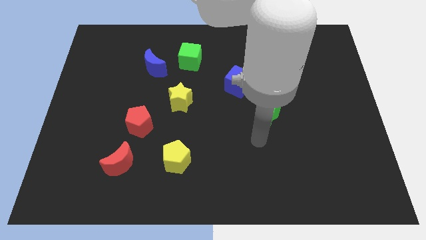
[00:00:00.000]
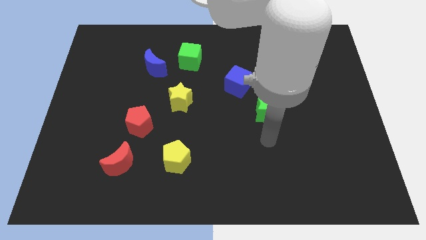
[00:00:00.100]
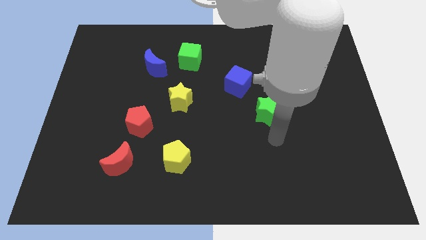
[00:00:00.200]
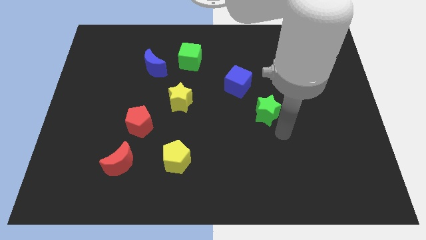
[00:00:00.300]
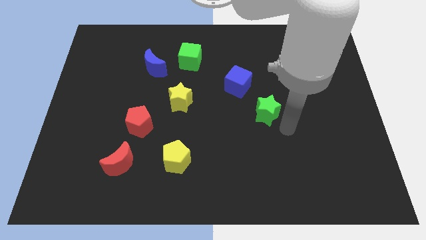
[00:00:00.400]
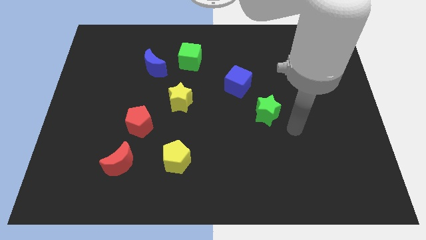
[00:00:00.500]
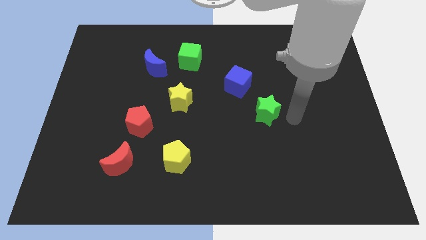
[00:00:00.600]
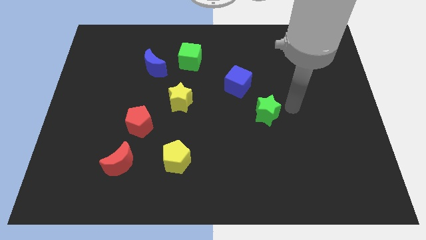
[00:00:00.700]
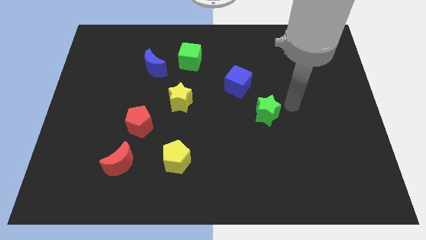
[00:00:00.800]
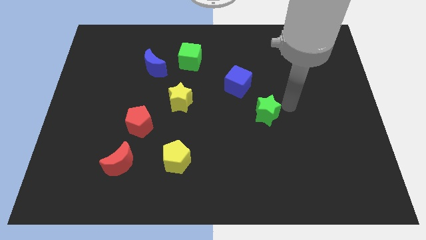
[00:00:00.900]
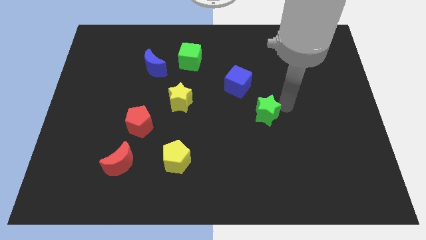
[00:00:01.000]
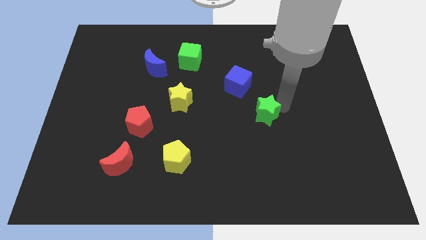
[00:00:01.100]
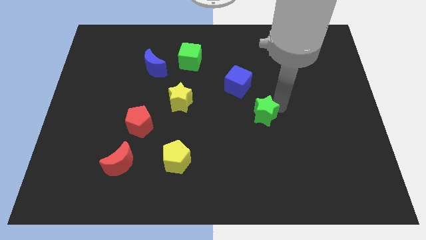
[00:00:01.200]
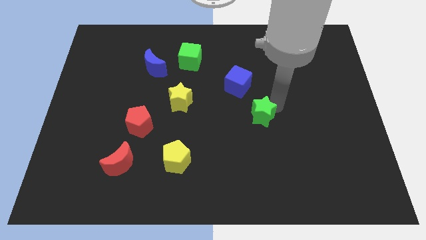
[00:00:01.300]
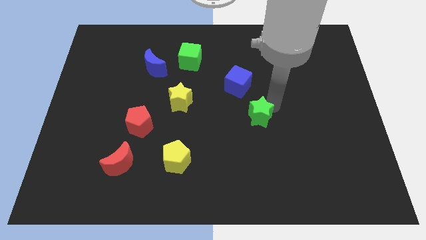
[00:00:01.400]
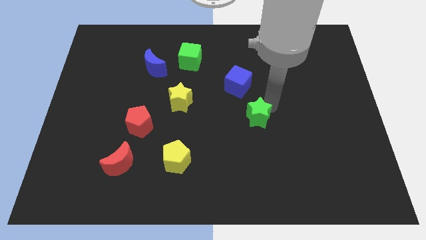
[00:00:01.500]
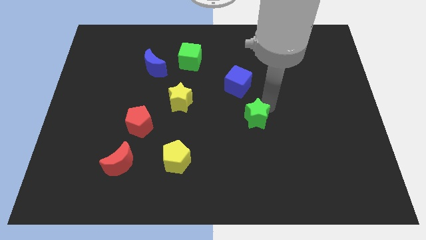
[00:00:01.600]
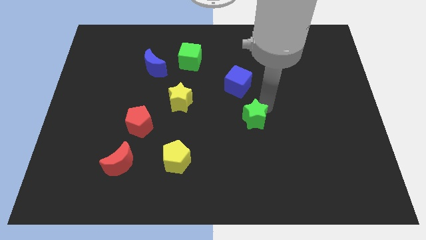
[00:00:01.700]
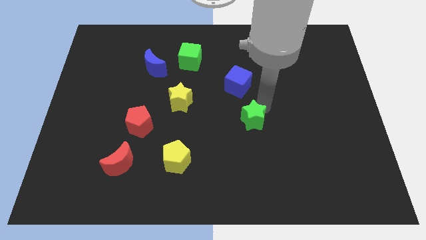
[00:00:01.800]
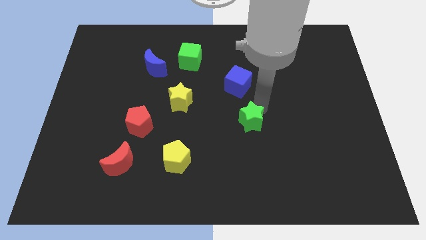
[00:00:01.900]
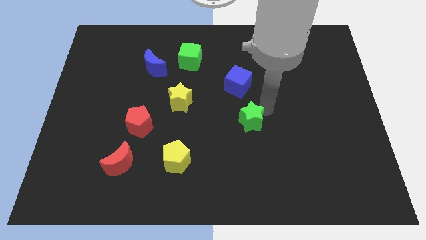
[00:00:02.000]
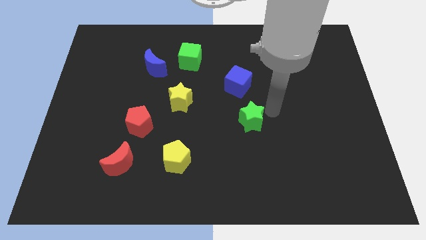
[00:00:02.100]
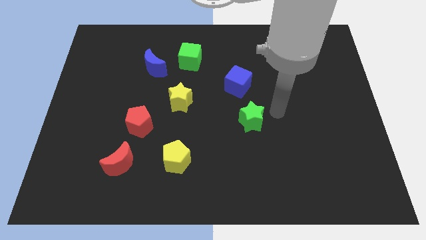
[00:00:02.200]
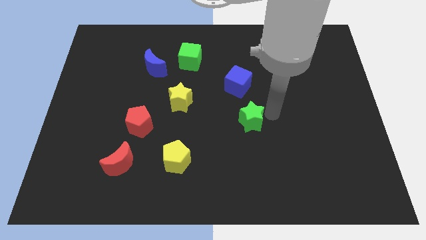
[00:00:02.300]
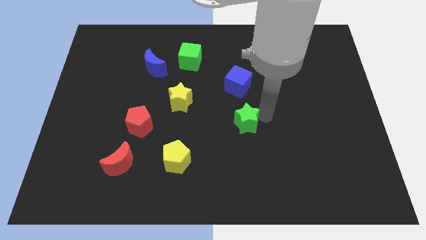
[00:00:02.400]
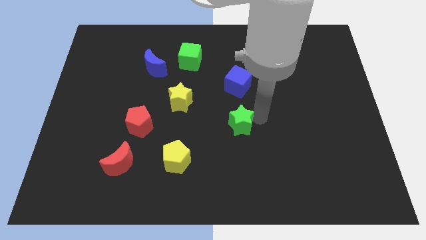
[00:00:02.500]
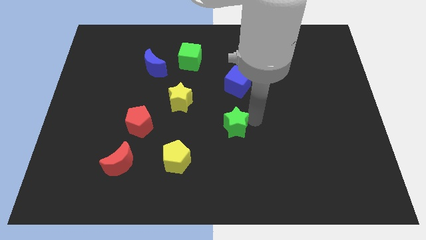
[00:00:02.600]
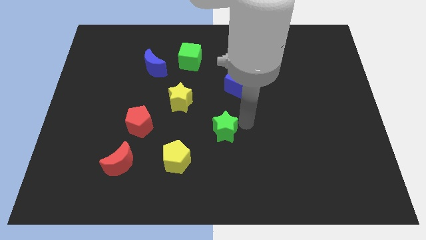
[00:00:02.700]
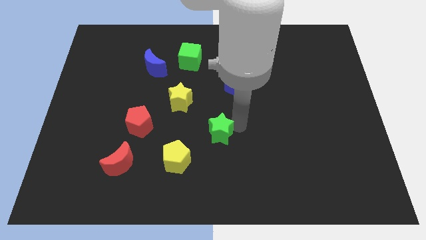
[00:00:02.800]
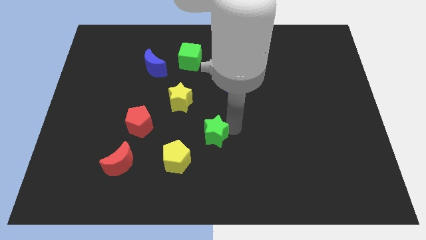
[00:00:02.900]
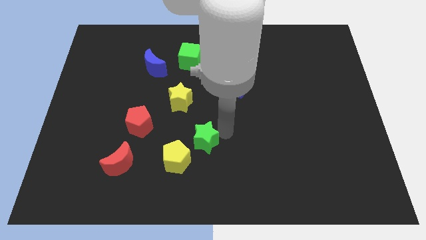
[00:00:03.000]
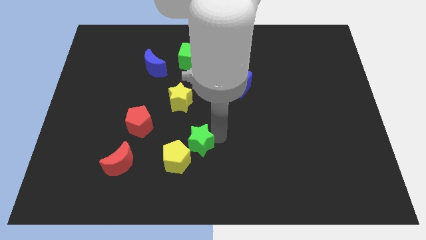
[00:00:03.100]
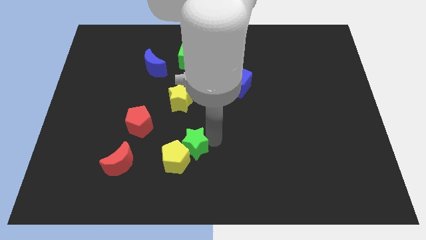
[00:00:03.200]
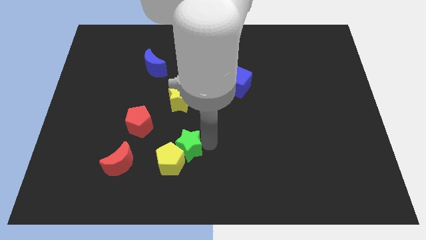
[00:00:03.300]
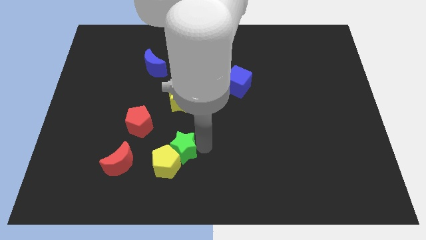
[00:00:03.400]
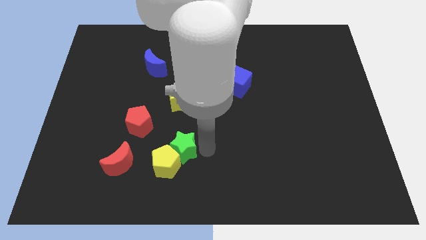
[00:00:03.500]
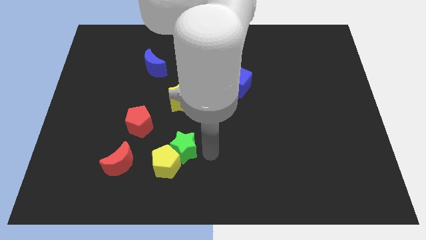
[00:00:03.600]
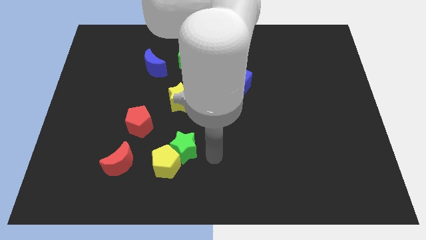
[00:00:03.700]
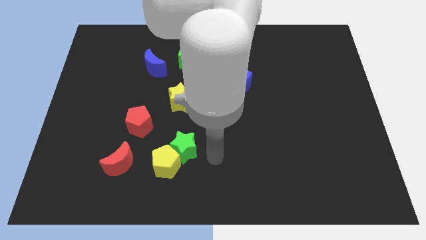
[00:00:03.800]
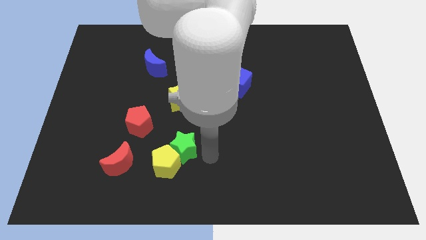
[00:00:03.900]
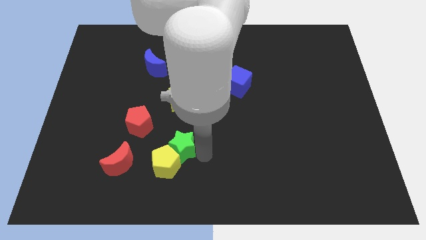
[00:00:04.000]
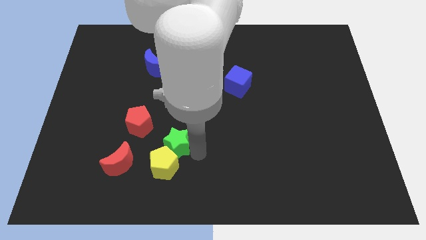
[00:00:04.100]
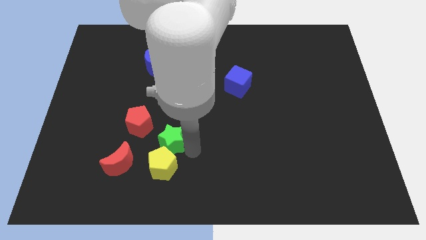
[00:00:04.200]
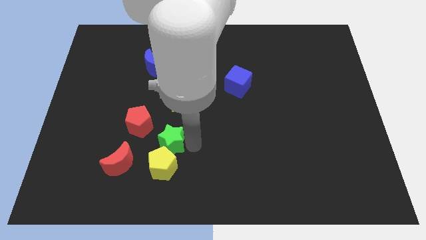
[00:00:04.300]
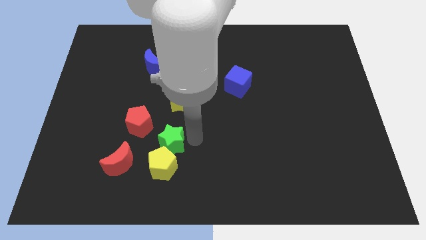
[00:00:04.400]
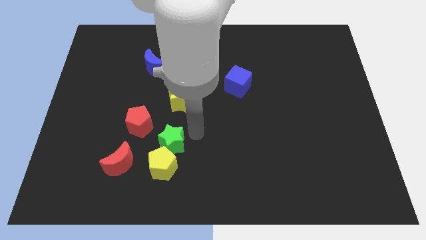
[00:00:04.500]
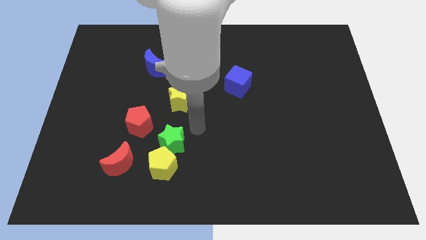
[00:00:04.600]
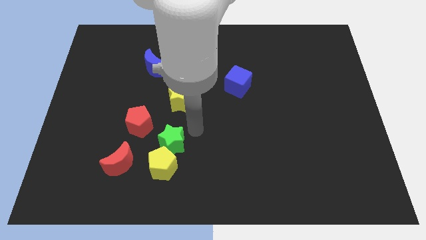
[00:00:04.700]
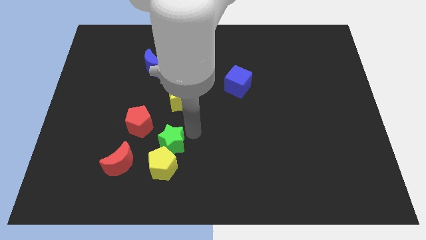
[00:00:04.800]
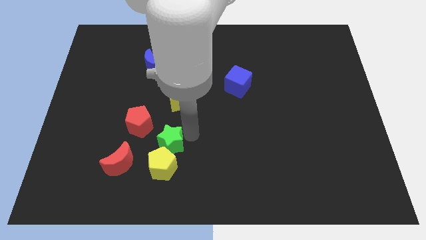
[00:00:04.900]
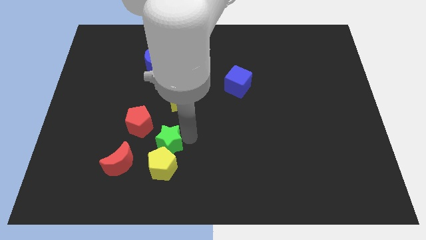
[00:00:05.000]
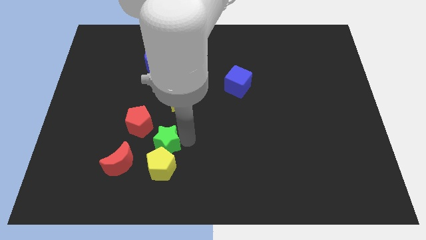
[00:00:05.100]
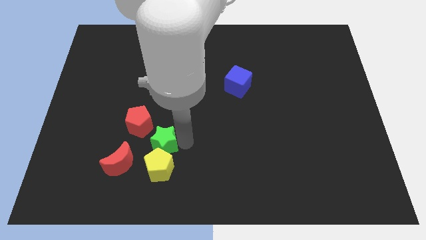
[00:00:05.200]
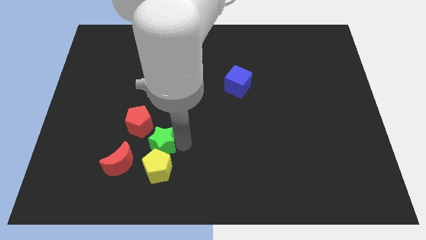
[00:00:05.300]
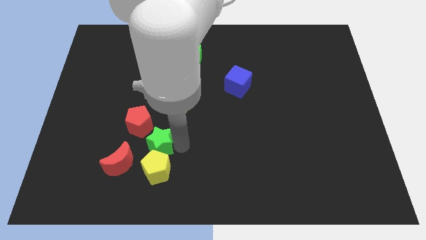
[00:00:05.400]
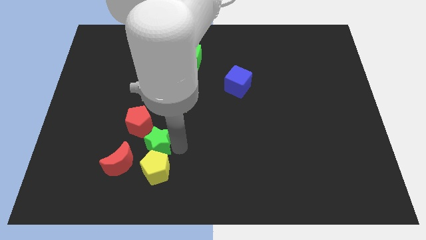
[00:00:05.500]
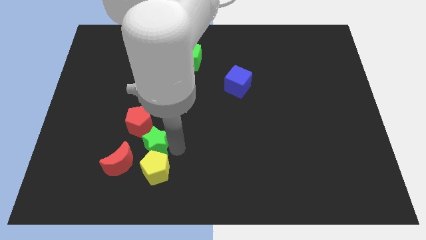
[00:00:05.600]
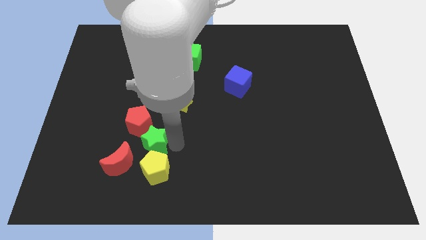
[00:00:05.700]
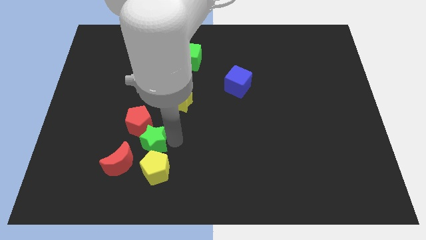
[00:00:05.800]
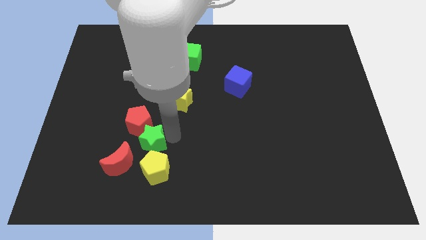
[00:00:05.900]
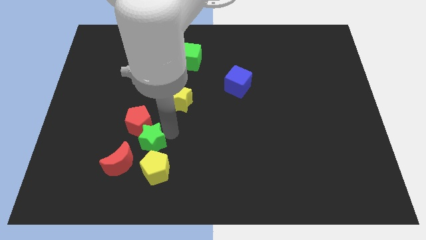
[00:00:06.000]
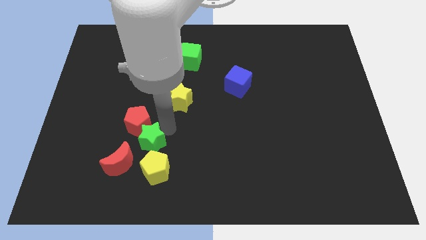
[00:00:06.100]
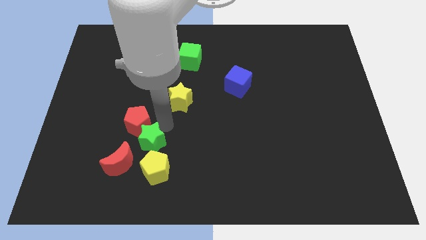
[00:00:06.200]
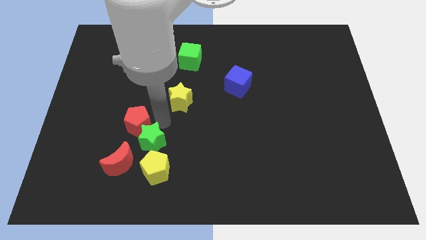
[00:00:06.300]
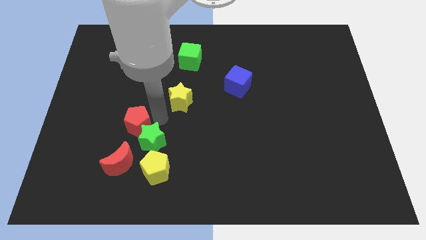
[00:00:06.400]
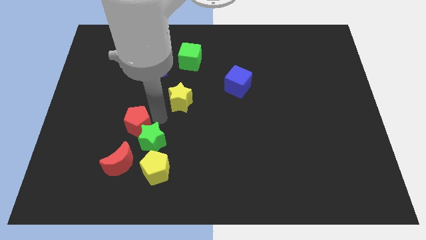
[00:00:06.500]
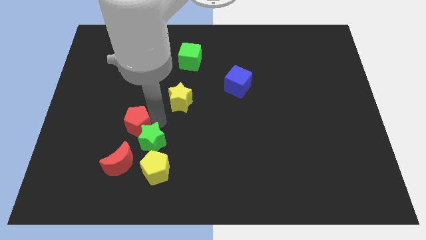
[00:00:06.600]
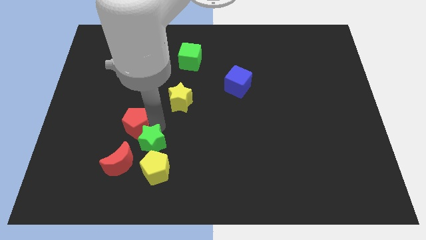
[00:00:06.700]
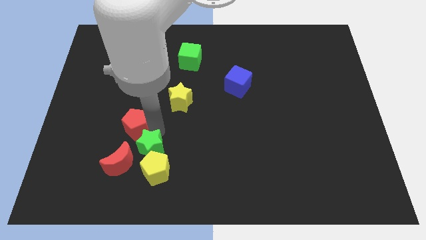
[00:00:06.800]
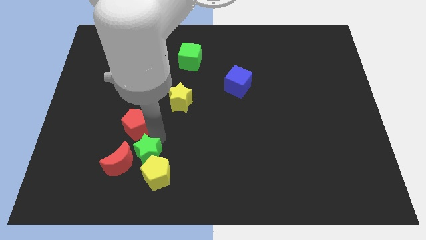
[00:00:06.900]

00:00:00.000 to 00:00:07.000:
push the green star close to the red moon
